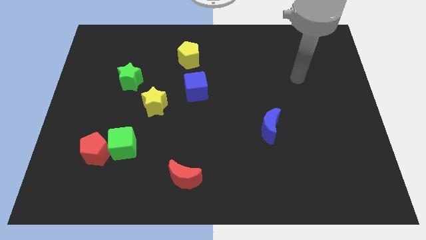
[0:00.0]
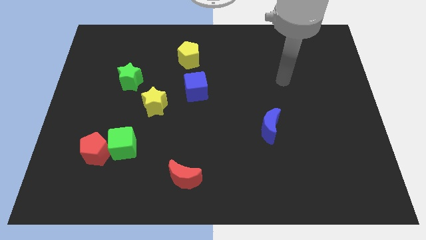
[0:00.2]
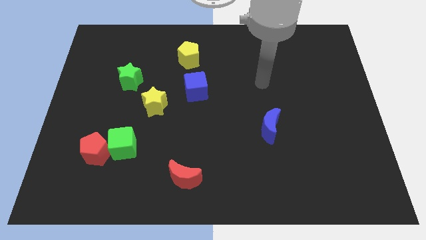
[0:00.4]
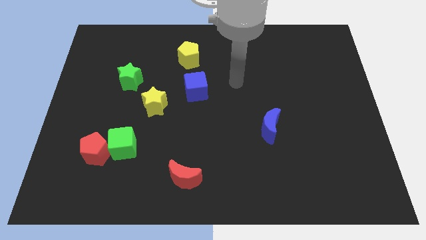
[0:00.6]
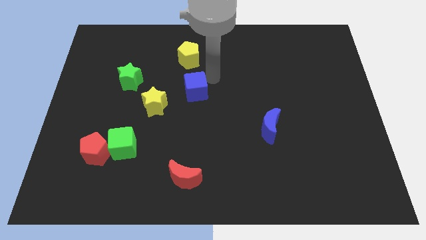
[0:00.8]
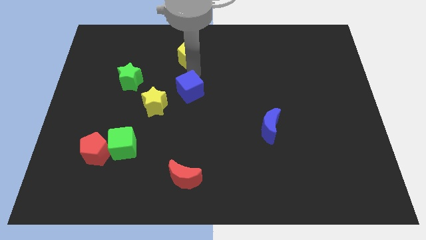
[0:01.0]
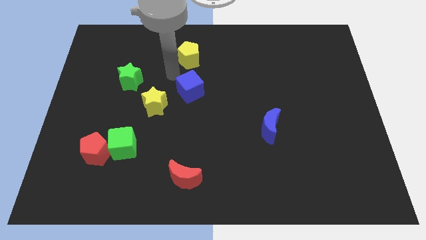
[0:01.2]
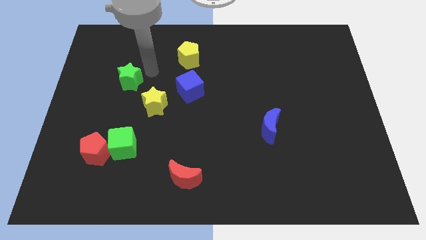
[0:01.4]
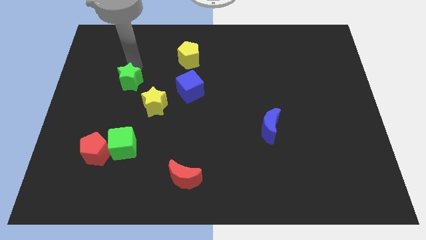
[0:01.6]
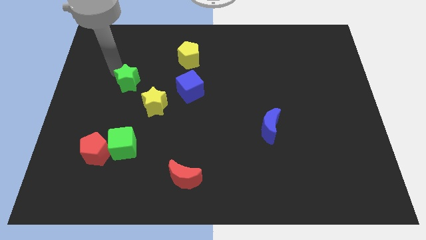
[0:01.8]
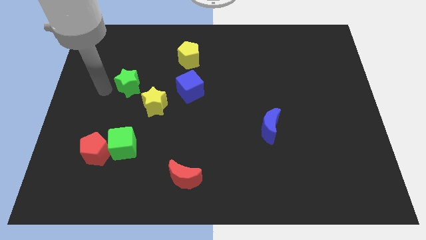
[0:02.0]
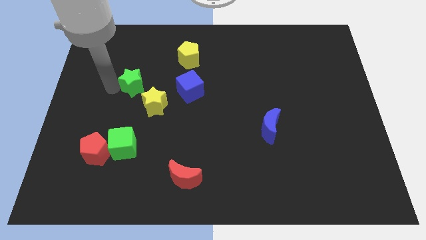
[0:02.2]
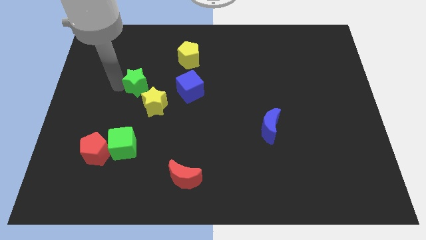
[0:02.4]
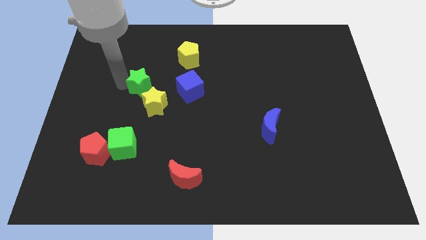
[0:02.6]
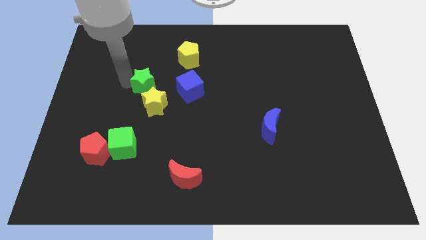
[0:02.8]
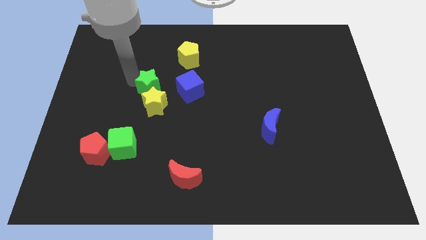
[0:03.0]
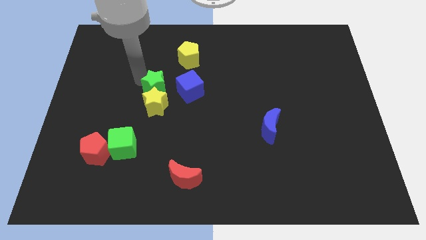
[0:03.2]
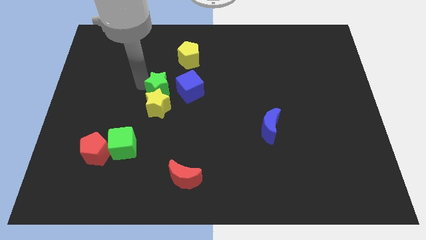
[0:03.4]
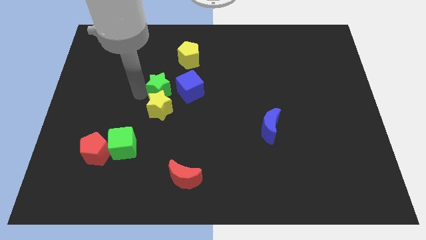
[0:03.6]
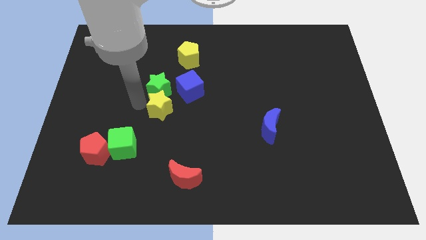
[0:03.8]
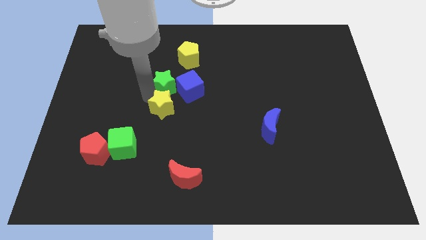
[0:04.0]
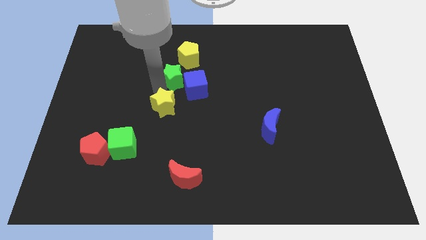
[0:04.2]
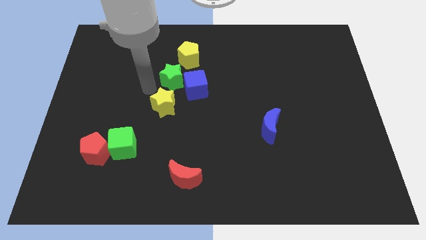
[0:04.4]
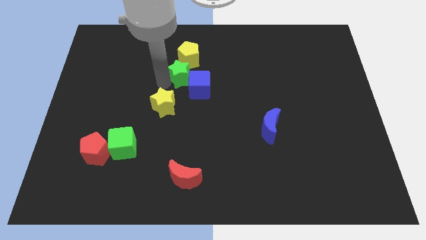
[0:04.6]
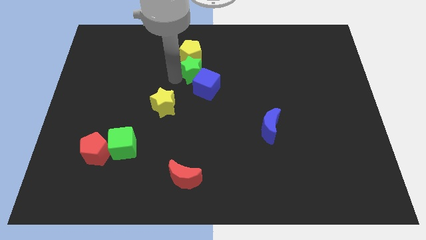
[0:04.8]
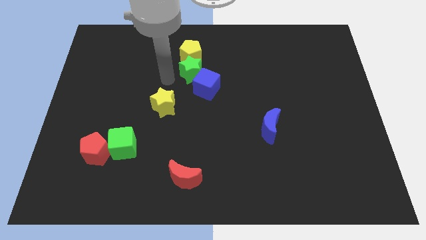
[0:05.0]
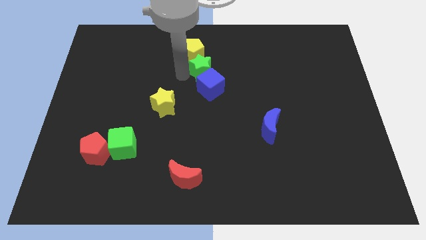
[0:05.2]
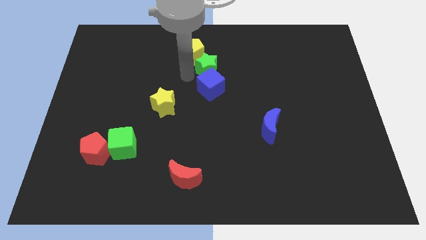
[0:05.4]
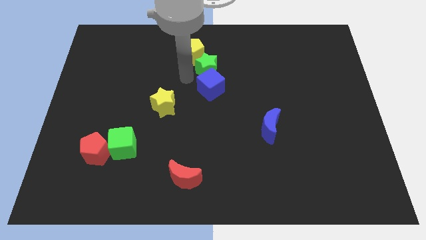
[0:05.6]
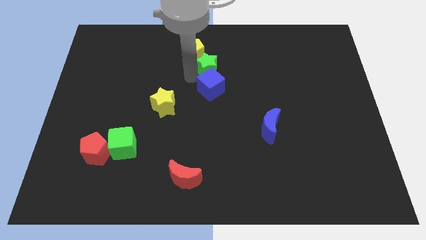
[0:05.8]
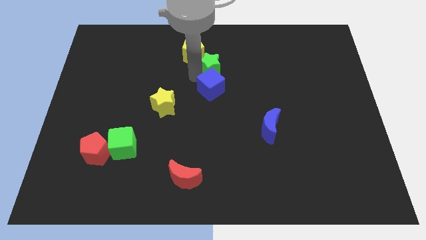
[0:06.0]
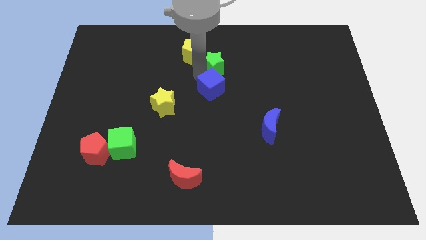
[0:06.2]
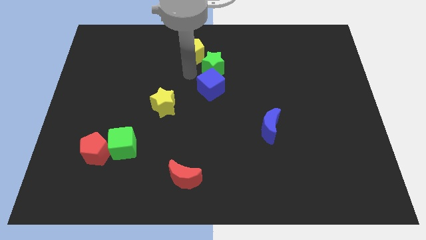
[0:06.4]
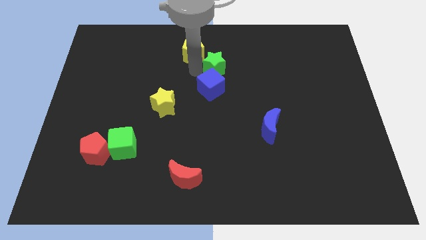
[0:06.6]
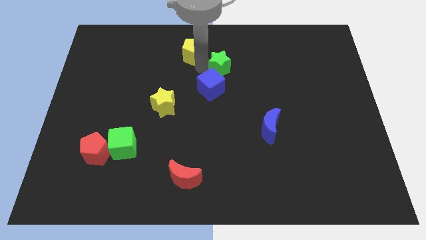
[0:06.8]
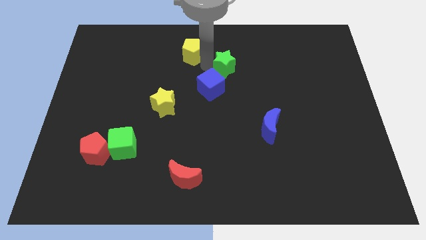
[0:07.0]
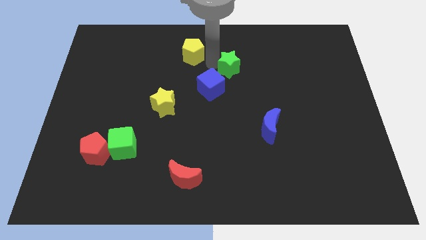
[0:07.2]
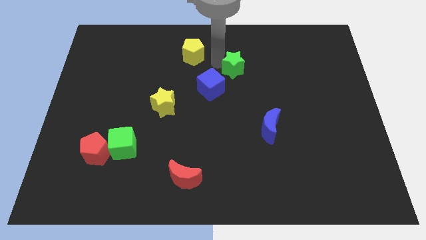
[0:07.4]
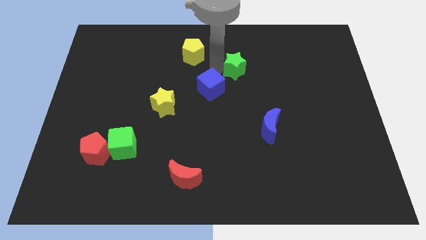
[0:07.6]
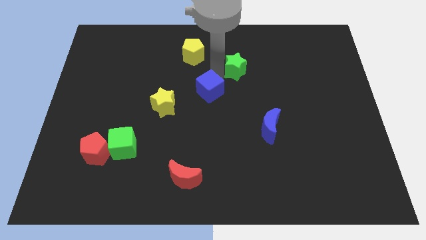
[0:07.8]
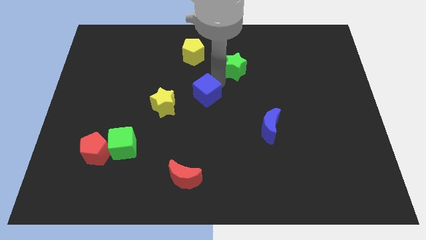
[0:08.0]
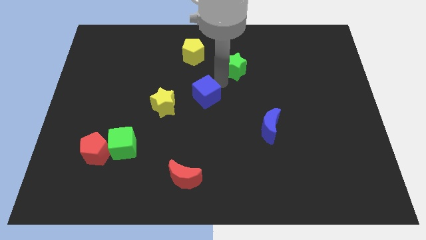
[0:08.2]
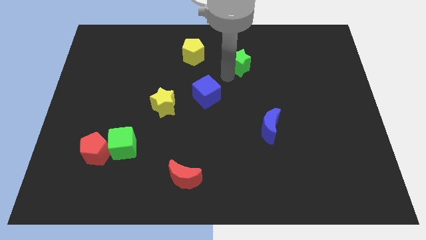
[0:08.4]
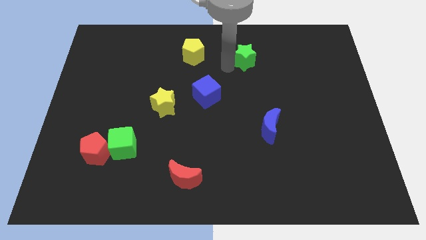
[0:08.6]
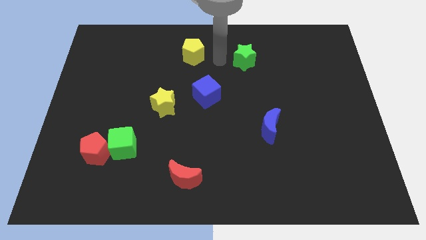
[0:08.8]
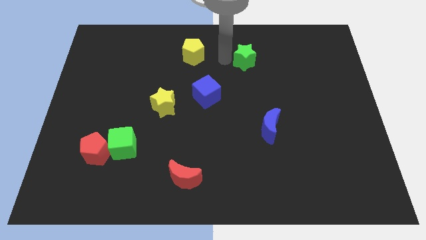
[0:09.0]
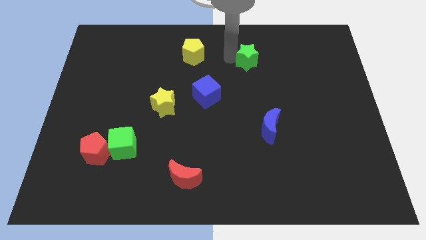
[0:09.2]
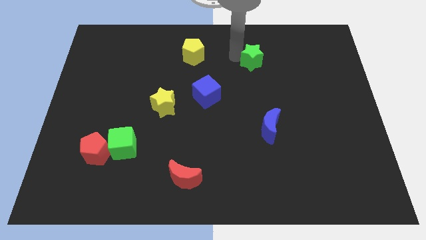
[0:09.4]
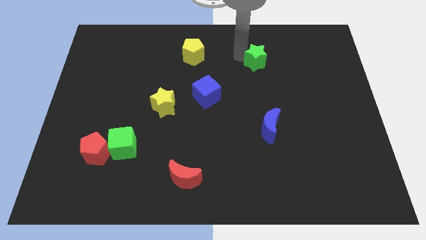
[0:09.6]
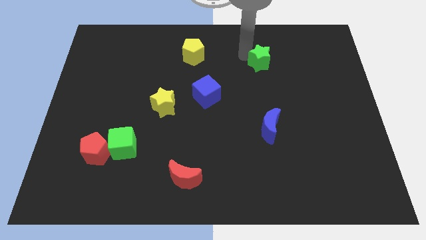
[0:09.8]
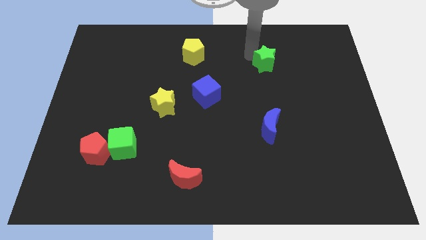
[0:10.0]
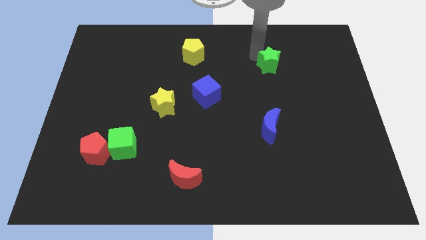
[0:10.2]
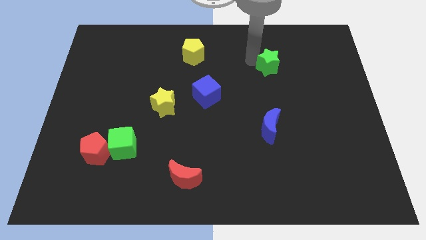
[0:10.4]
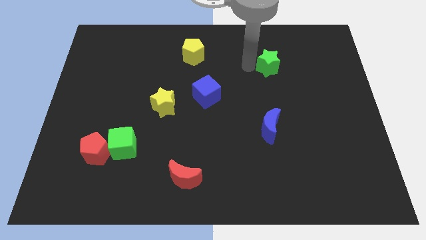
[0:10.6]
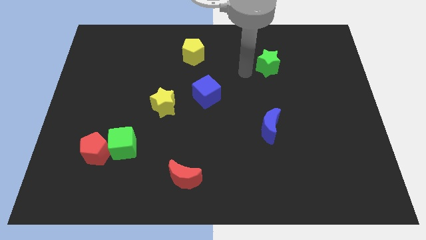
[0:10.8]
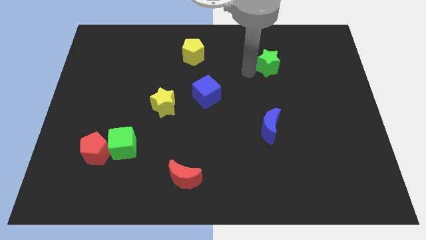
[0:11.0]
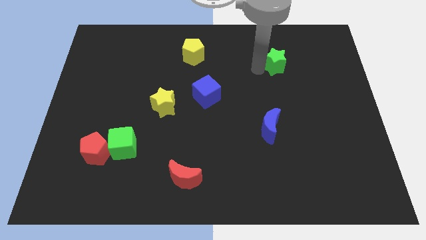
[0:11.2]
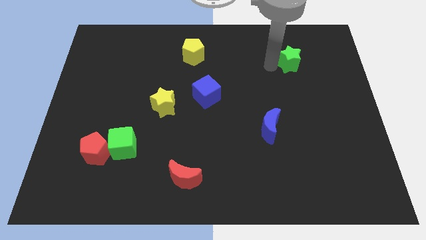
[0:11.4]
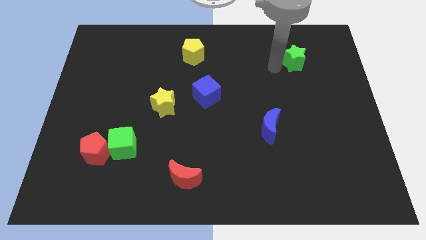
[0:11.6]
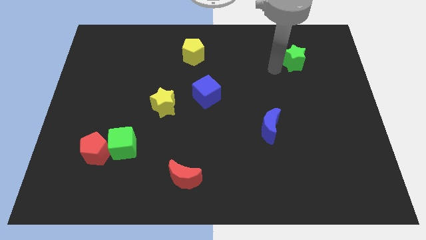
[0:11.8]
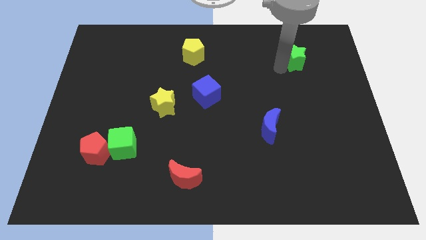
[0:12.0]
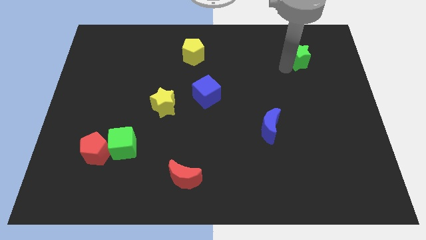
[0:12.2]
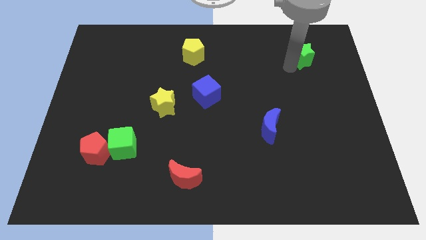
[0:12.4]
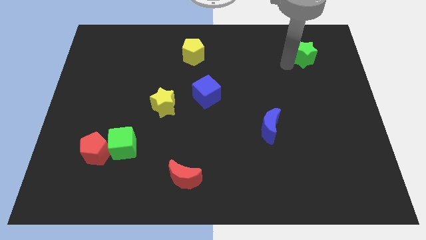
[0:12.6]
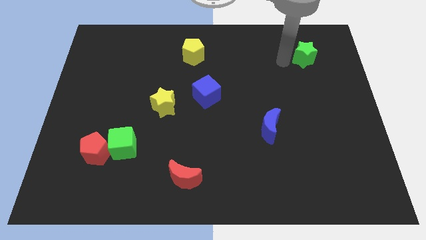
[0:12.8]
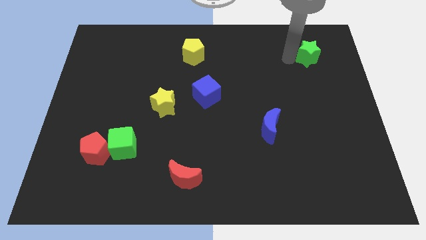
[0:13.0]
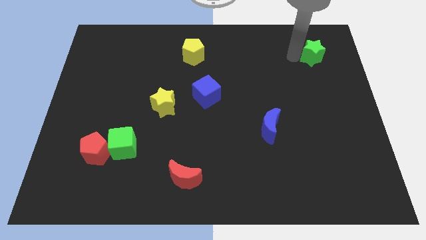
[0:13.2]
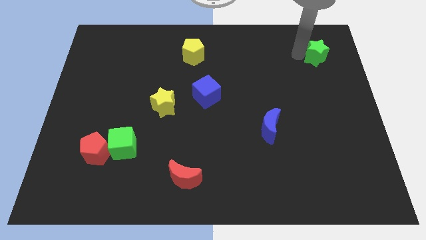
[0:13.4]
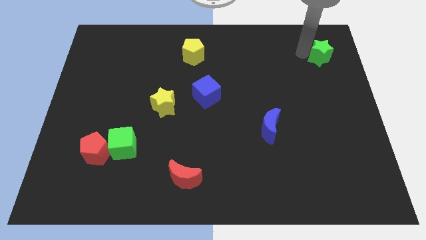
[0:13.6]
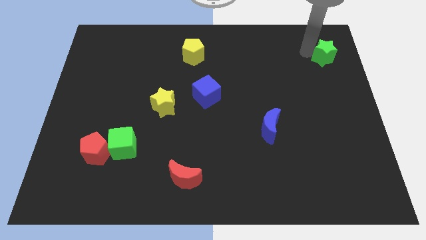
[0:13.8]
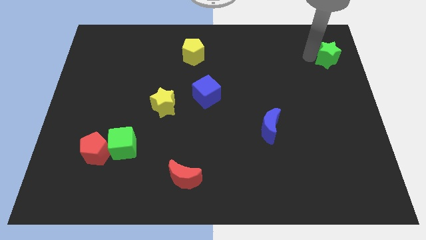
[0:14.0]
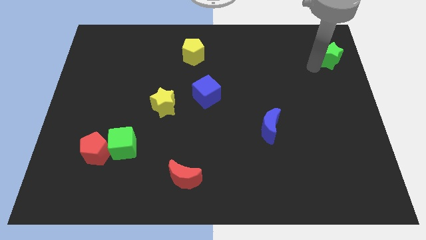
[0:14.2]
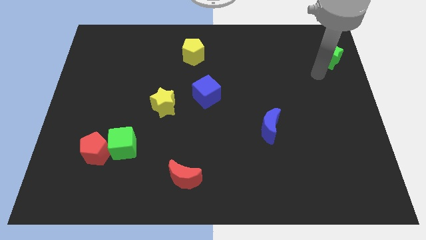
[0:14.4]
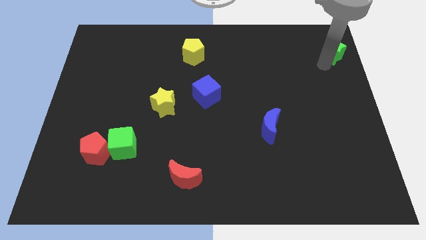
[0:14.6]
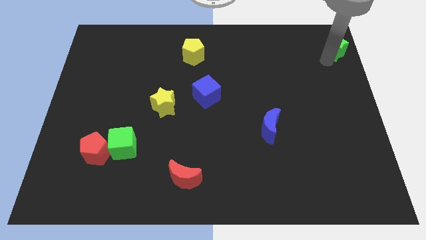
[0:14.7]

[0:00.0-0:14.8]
put the green star to the top right corner
